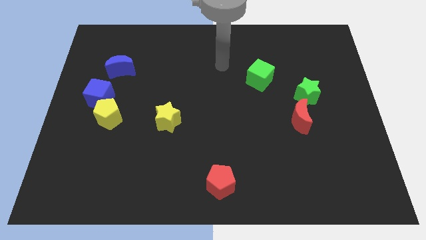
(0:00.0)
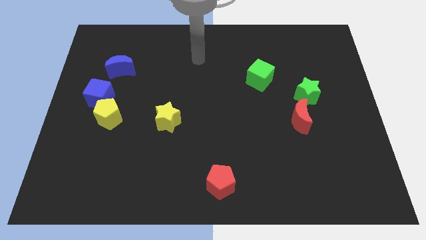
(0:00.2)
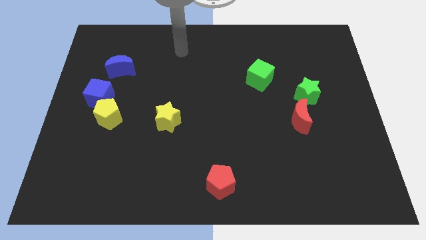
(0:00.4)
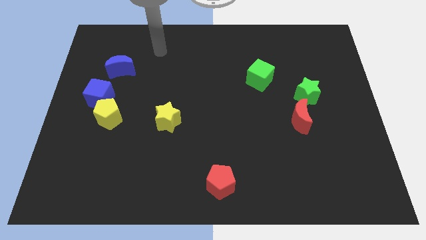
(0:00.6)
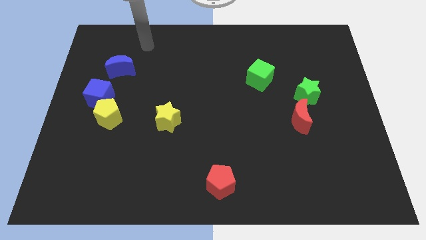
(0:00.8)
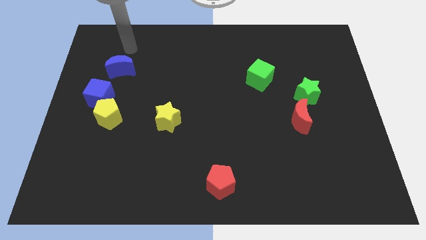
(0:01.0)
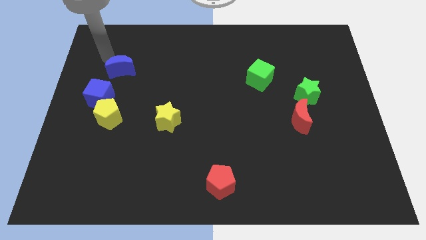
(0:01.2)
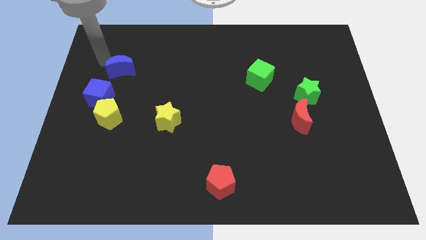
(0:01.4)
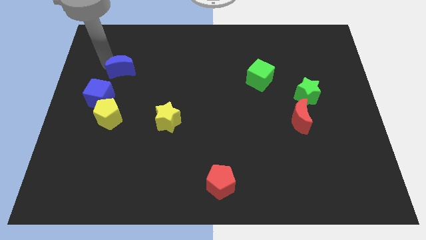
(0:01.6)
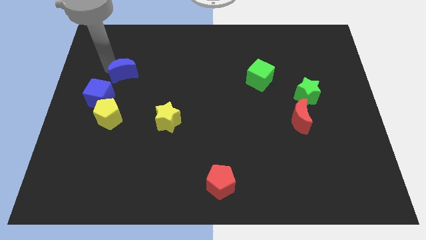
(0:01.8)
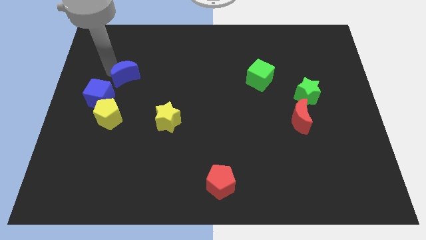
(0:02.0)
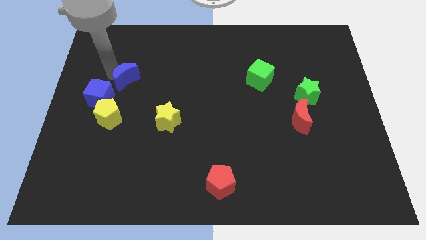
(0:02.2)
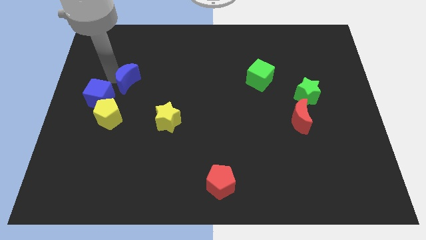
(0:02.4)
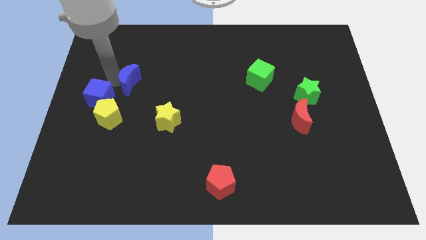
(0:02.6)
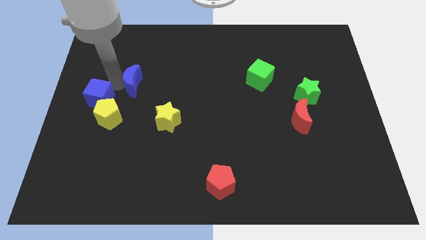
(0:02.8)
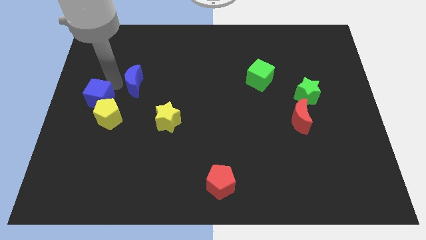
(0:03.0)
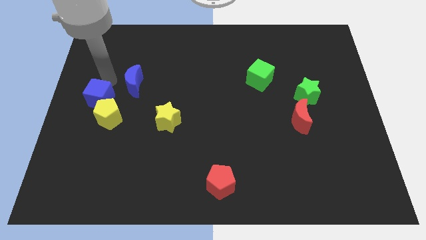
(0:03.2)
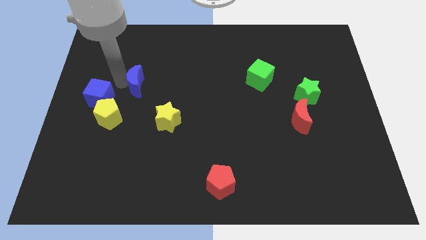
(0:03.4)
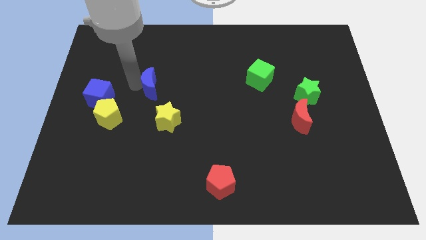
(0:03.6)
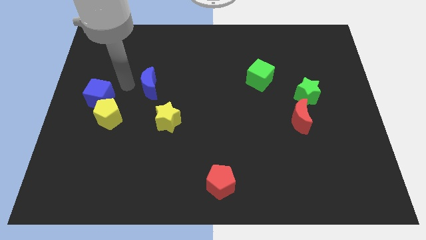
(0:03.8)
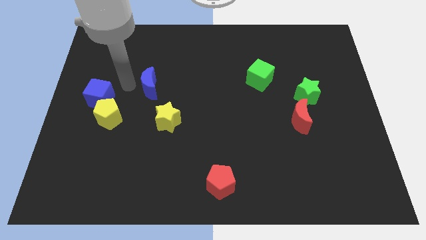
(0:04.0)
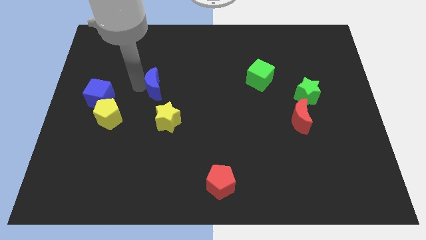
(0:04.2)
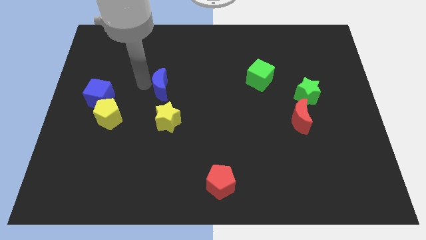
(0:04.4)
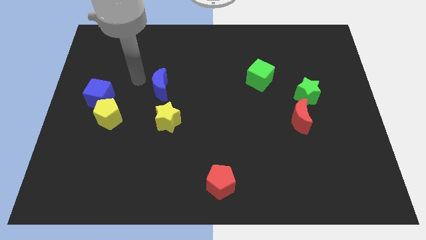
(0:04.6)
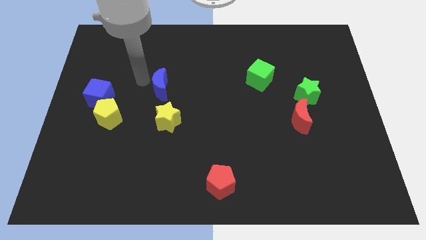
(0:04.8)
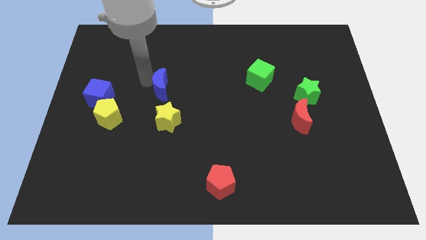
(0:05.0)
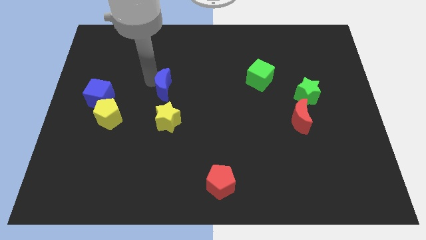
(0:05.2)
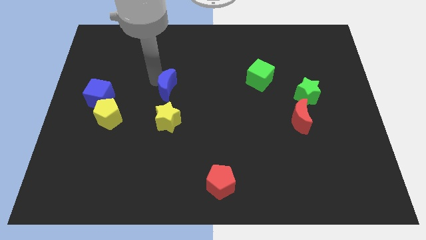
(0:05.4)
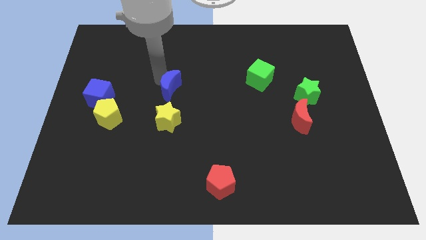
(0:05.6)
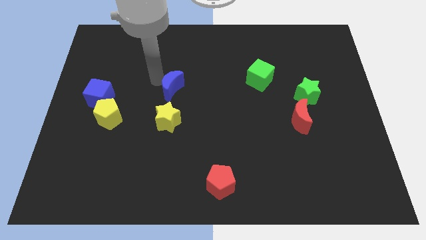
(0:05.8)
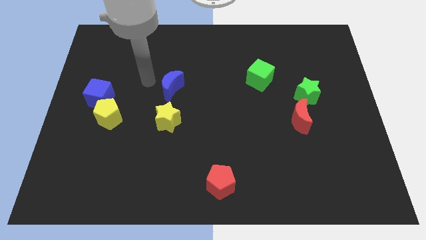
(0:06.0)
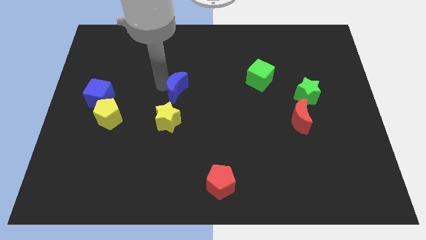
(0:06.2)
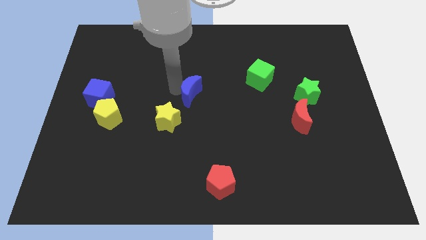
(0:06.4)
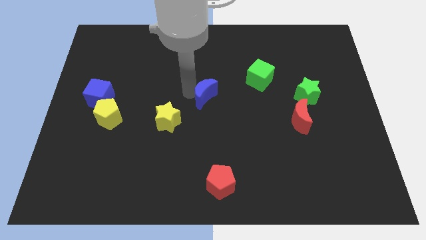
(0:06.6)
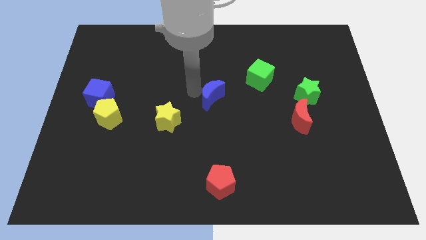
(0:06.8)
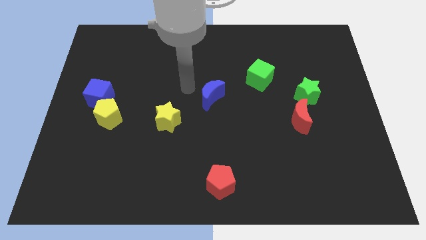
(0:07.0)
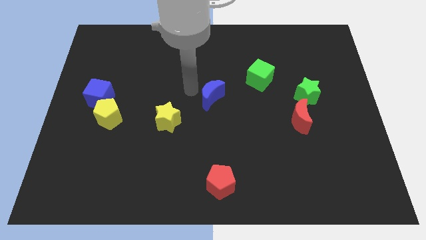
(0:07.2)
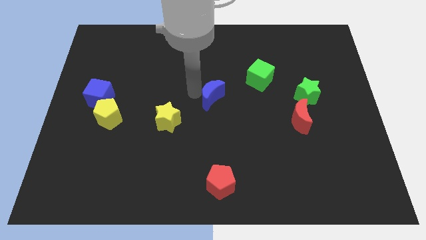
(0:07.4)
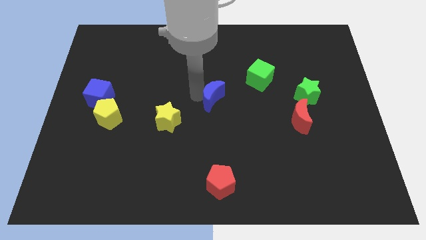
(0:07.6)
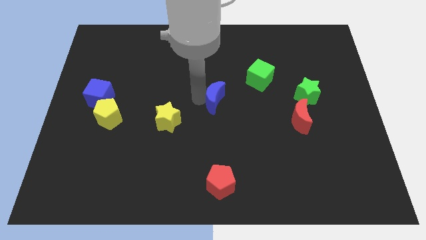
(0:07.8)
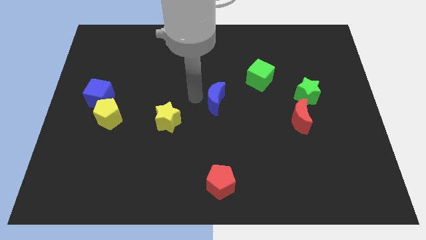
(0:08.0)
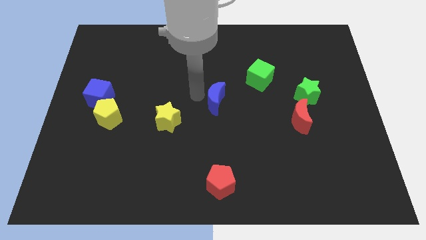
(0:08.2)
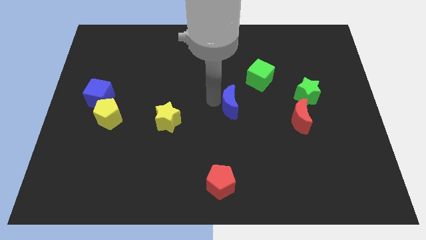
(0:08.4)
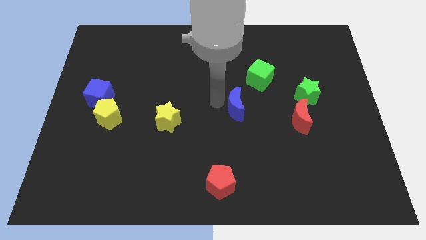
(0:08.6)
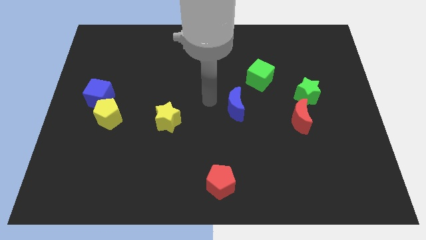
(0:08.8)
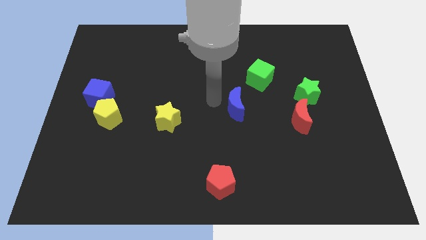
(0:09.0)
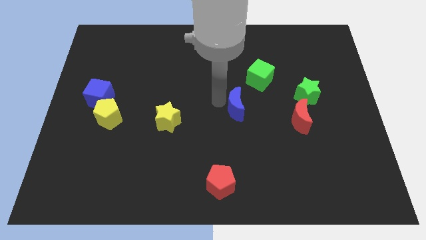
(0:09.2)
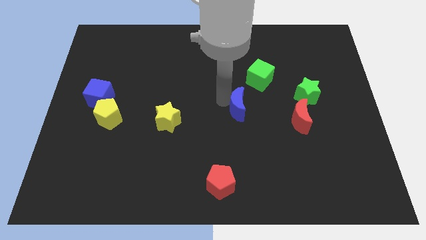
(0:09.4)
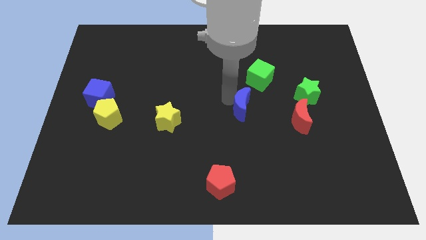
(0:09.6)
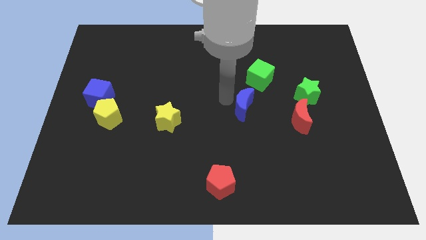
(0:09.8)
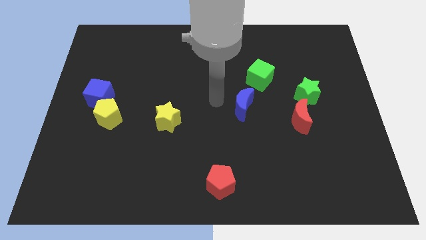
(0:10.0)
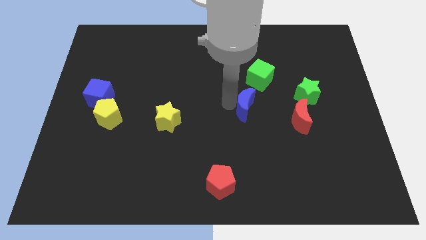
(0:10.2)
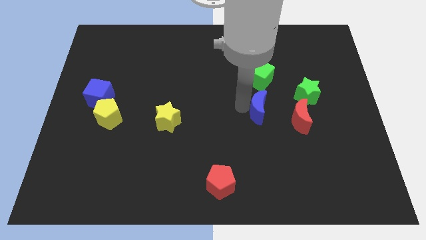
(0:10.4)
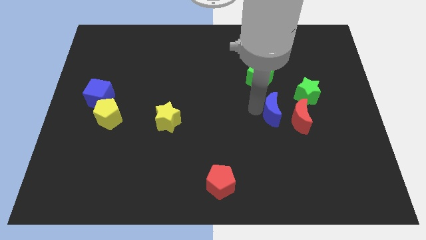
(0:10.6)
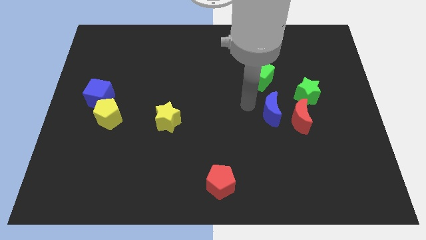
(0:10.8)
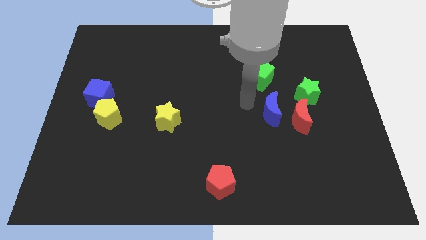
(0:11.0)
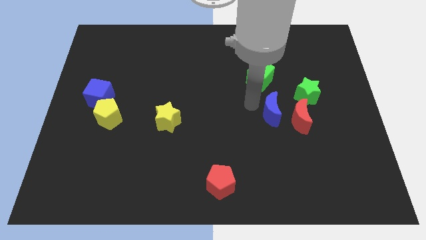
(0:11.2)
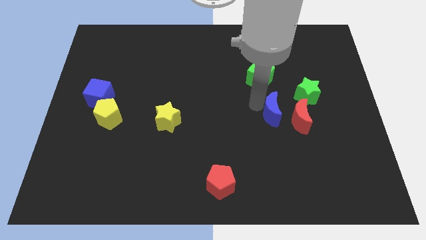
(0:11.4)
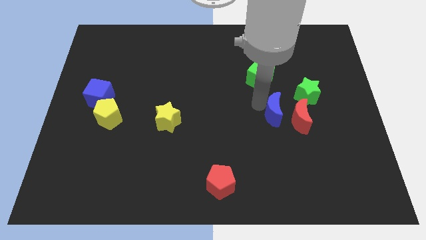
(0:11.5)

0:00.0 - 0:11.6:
move the blue moon to the red moon

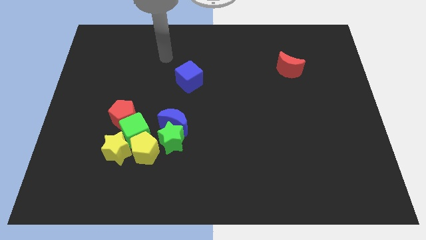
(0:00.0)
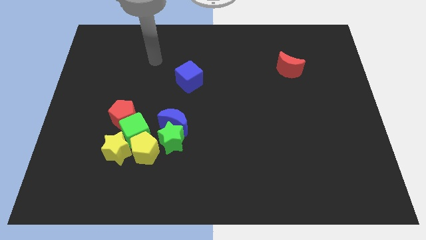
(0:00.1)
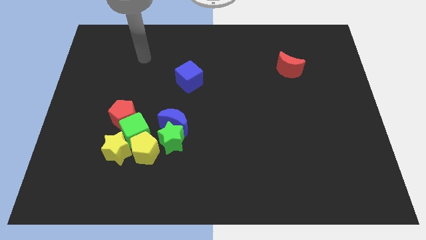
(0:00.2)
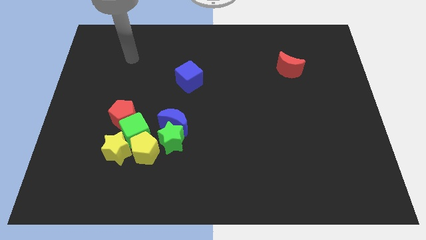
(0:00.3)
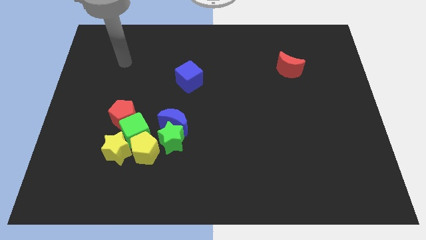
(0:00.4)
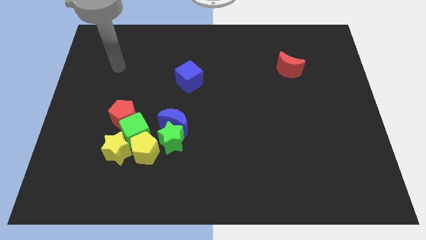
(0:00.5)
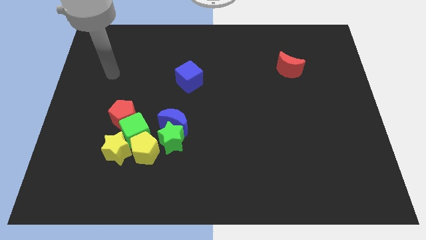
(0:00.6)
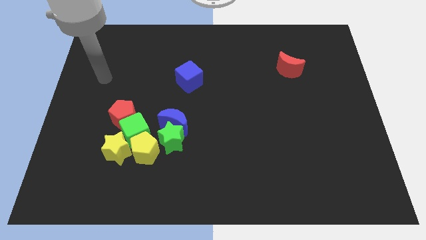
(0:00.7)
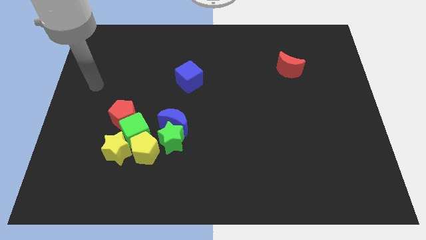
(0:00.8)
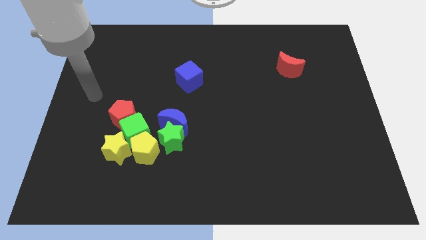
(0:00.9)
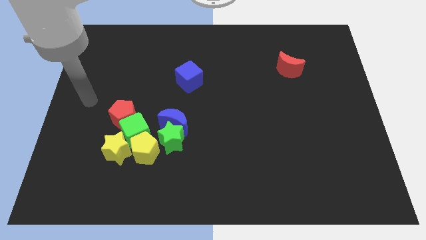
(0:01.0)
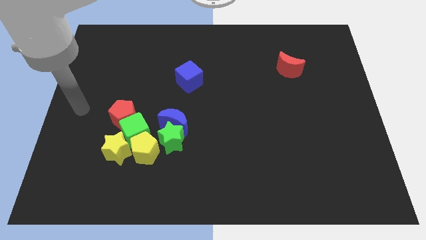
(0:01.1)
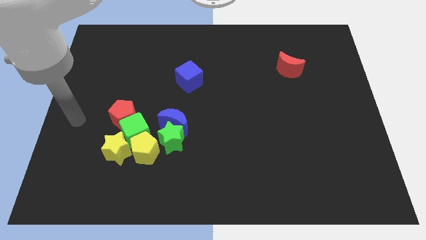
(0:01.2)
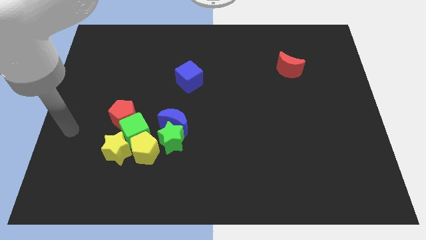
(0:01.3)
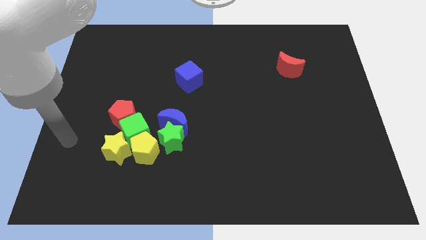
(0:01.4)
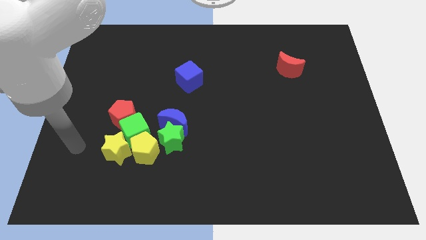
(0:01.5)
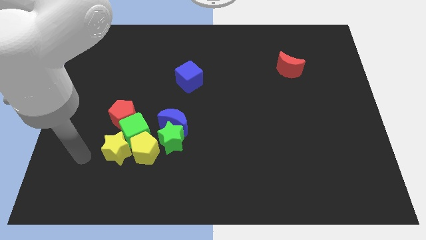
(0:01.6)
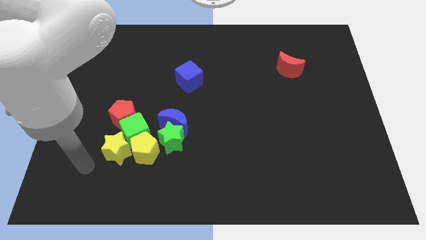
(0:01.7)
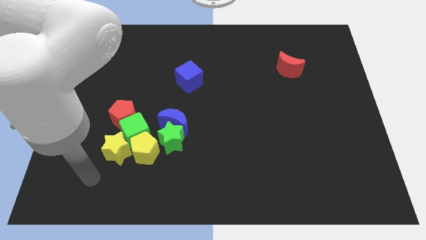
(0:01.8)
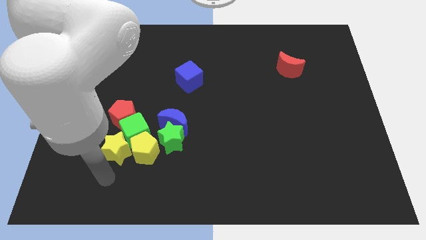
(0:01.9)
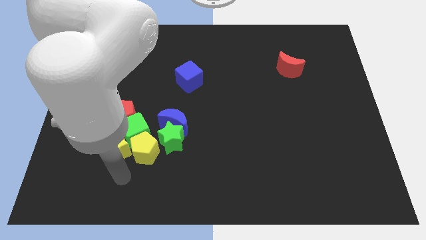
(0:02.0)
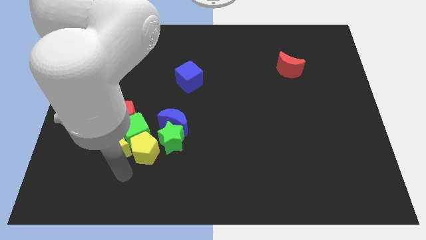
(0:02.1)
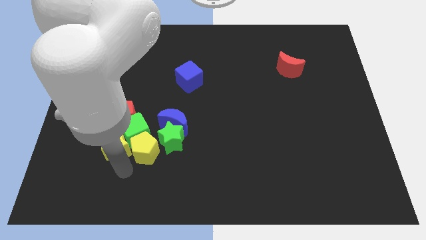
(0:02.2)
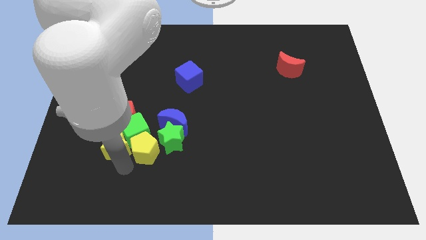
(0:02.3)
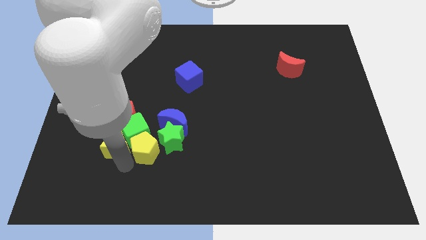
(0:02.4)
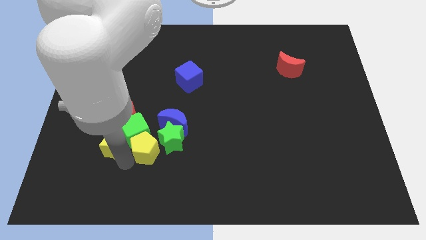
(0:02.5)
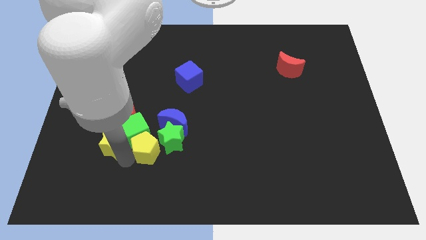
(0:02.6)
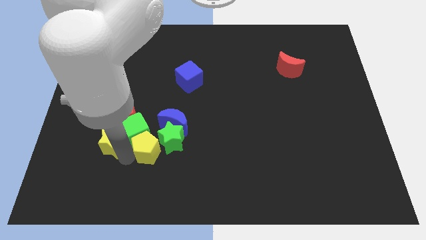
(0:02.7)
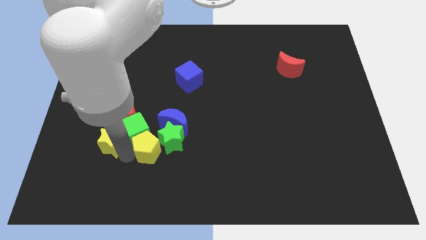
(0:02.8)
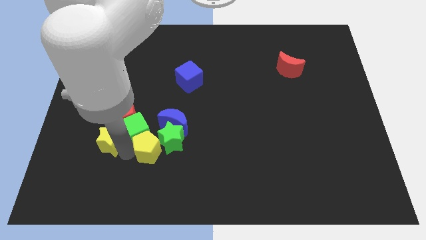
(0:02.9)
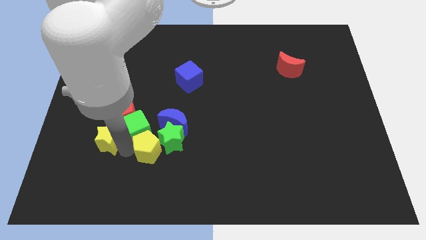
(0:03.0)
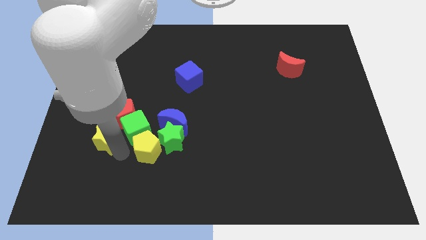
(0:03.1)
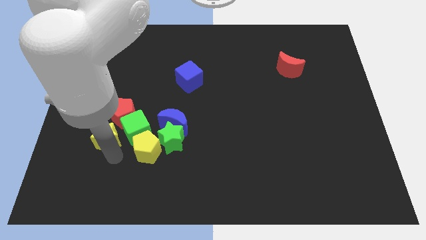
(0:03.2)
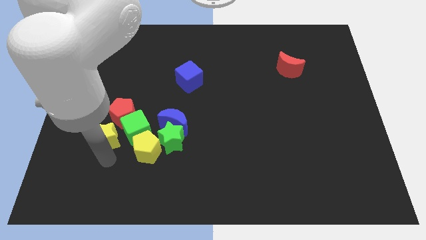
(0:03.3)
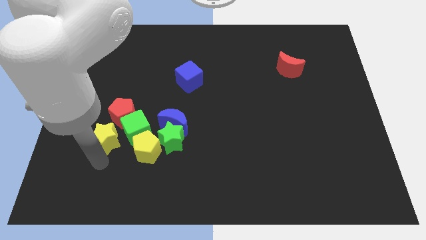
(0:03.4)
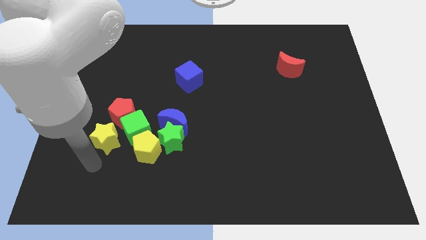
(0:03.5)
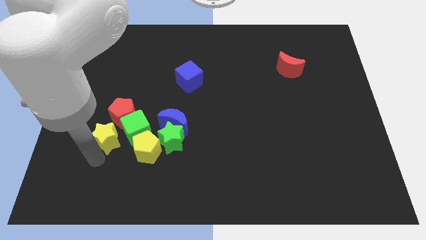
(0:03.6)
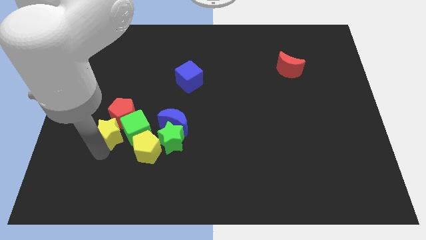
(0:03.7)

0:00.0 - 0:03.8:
move the yellow star to the red pentagon
